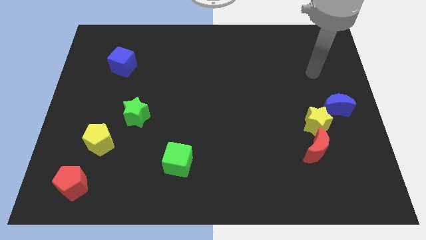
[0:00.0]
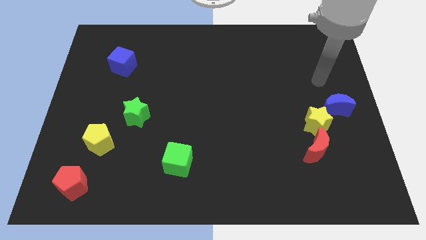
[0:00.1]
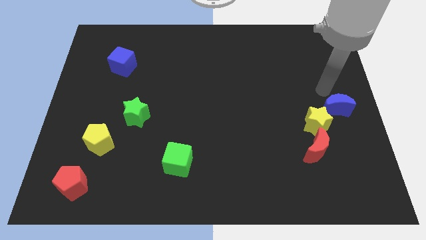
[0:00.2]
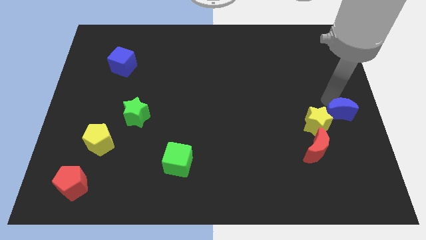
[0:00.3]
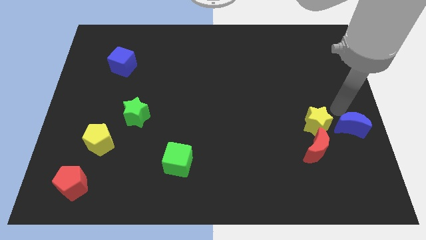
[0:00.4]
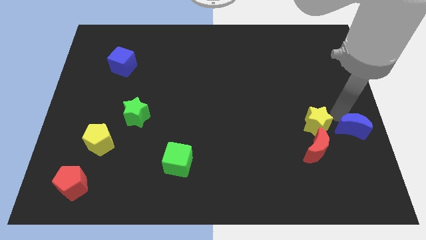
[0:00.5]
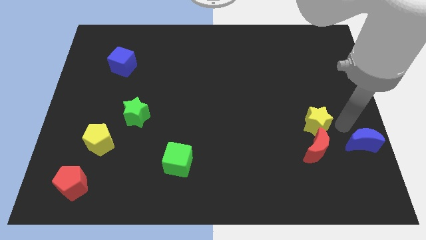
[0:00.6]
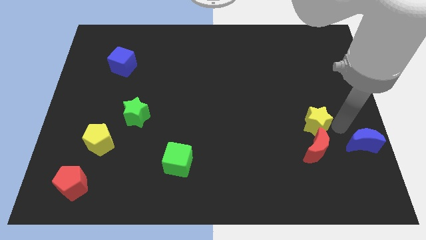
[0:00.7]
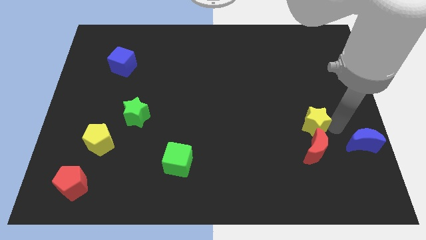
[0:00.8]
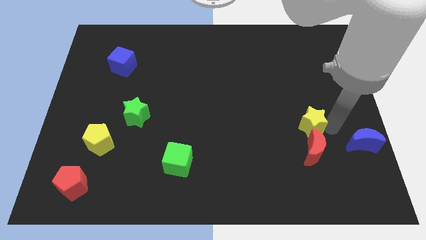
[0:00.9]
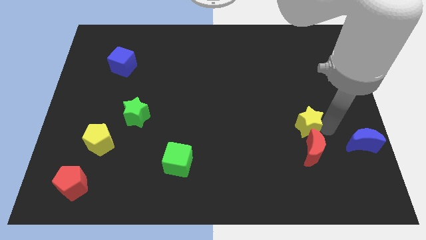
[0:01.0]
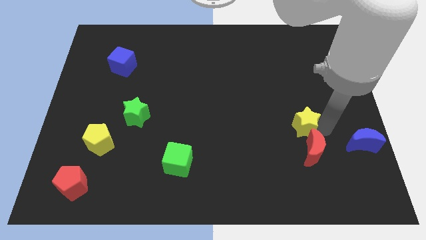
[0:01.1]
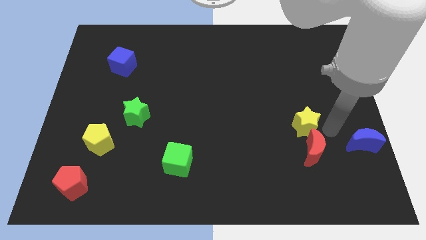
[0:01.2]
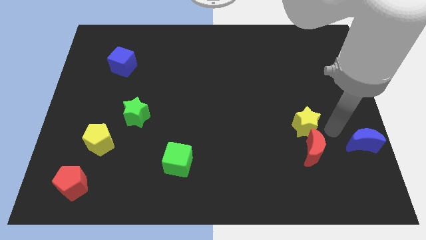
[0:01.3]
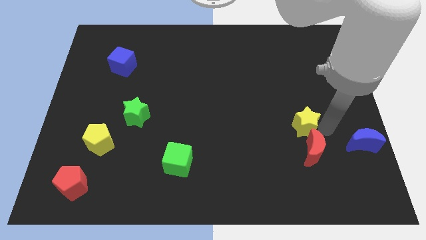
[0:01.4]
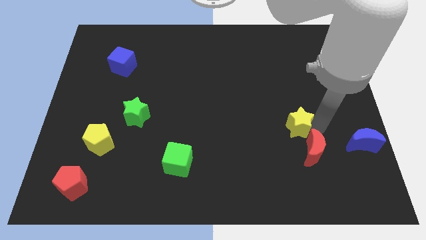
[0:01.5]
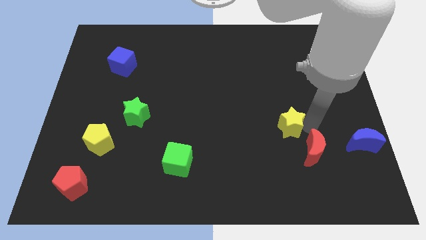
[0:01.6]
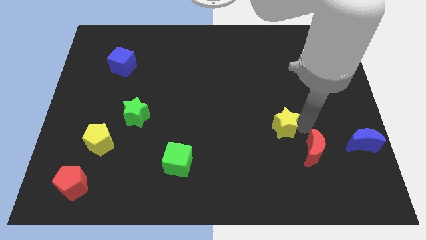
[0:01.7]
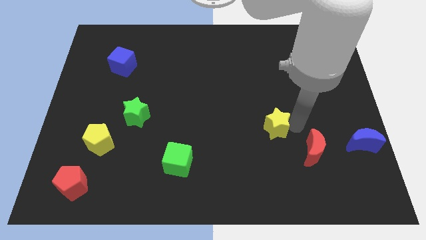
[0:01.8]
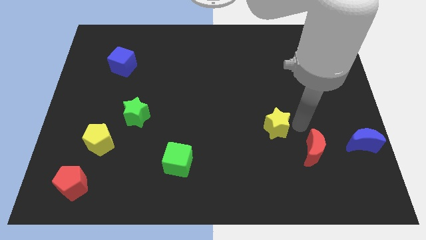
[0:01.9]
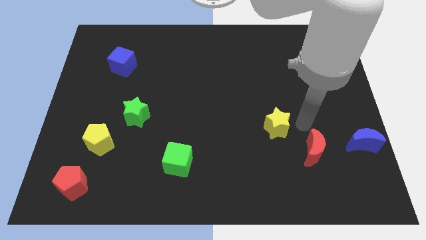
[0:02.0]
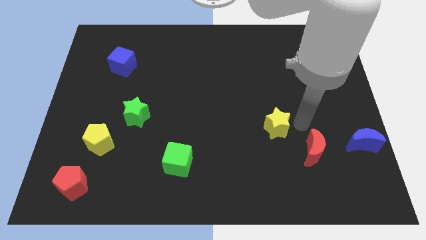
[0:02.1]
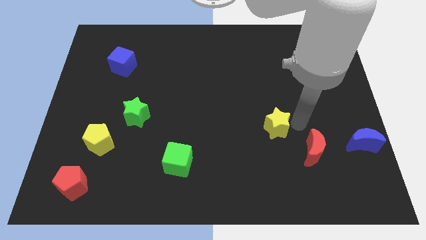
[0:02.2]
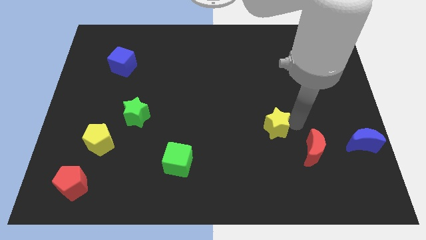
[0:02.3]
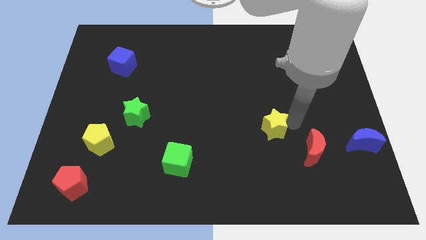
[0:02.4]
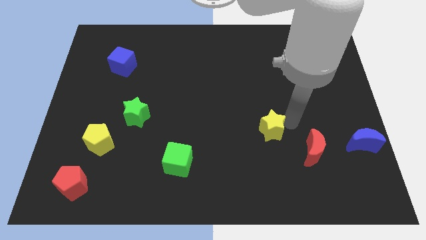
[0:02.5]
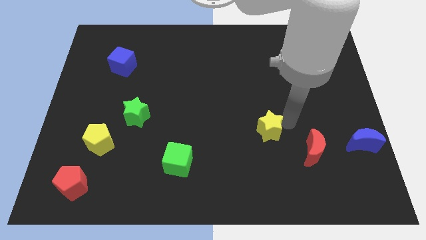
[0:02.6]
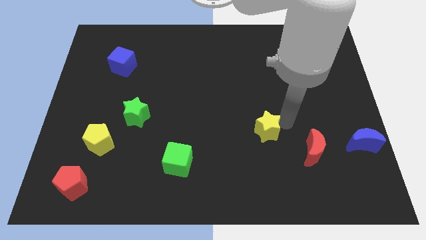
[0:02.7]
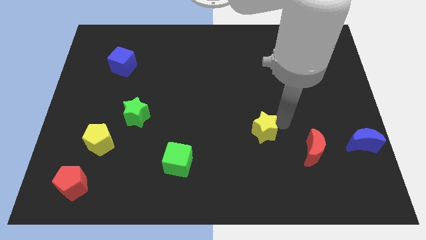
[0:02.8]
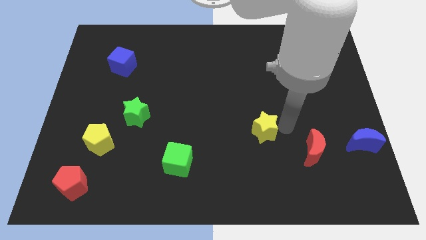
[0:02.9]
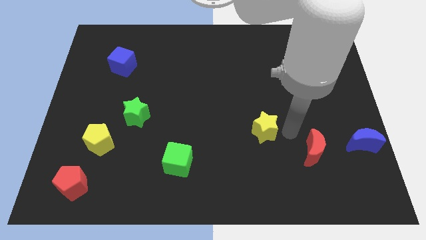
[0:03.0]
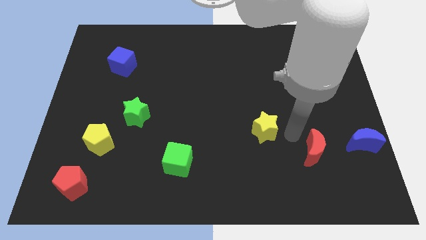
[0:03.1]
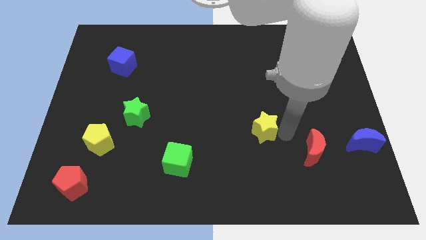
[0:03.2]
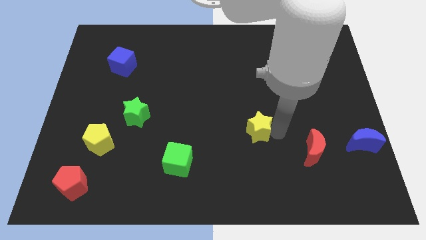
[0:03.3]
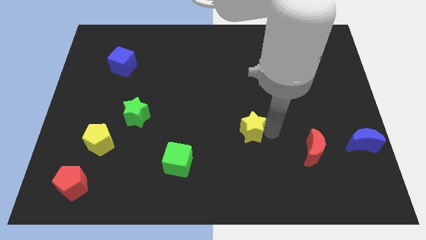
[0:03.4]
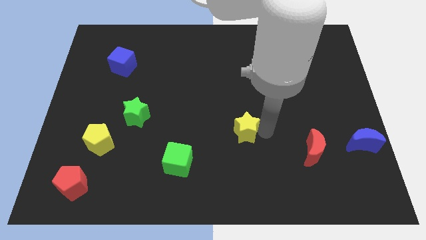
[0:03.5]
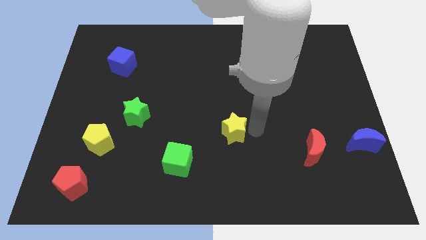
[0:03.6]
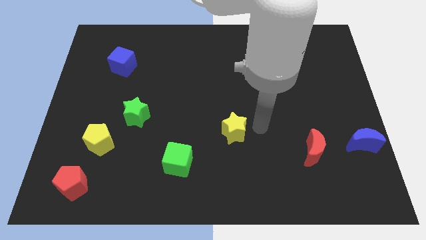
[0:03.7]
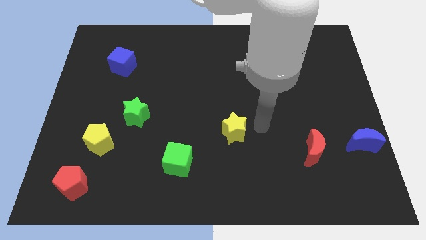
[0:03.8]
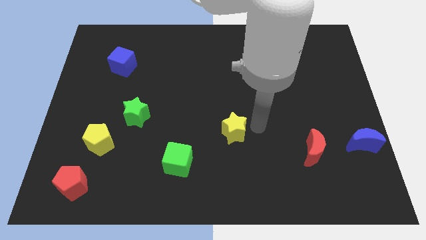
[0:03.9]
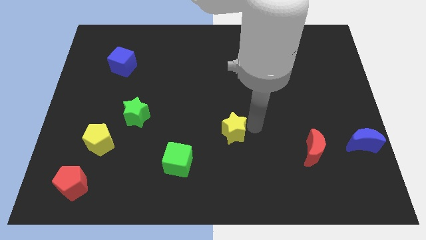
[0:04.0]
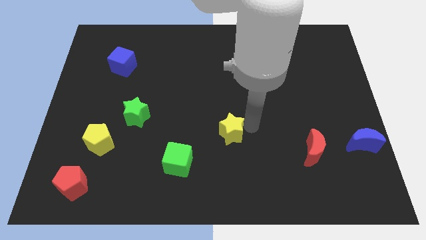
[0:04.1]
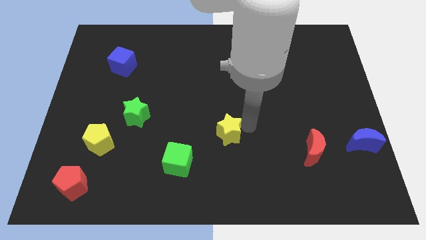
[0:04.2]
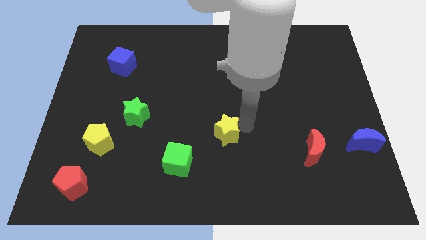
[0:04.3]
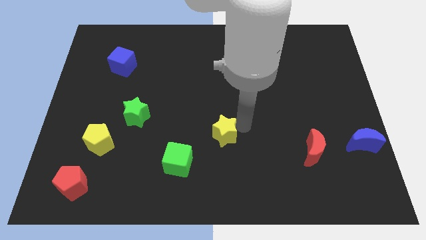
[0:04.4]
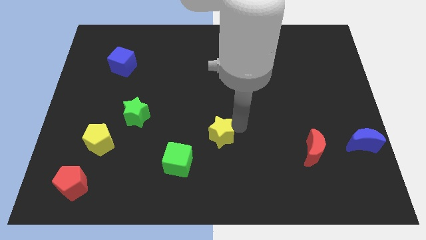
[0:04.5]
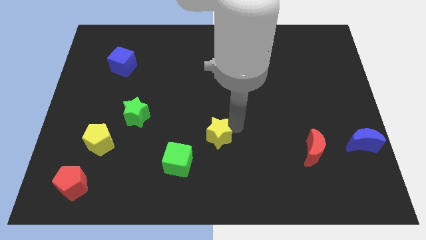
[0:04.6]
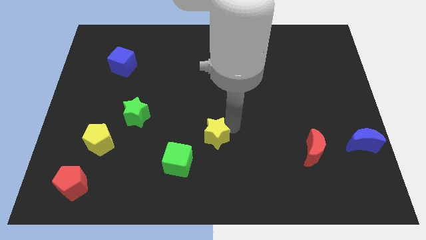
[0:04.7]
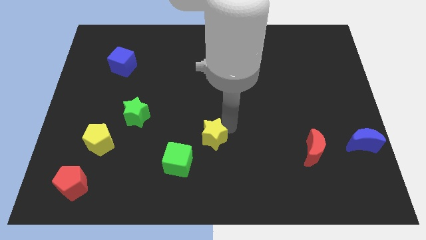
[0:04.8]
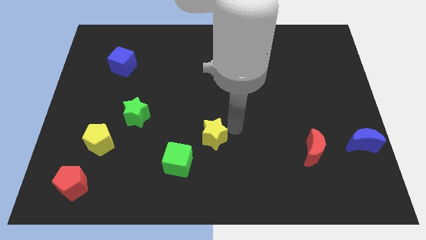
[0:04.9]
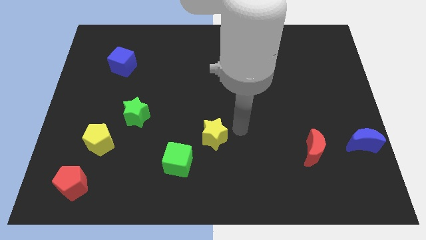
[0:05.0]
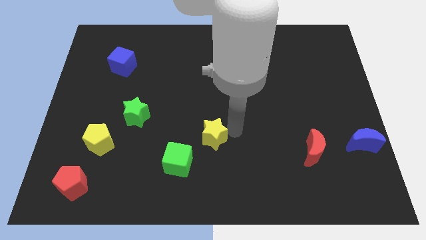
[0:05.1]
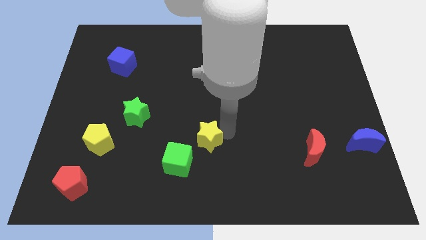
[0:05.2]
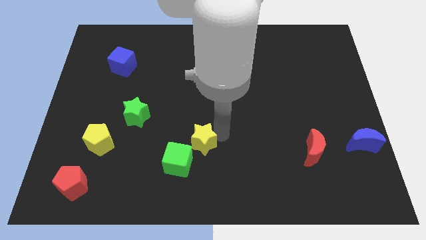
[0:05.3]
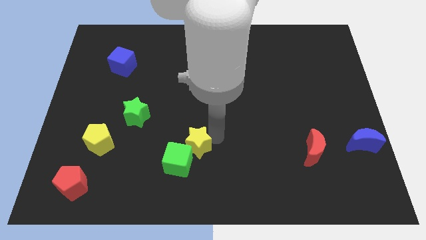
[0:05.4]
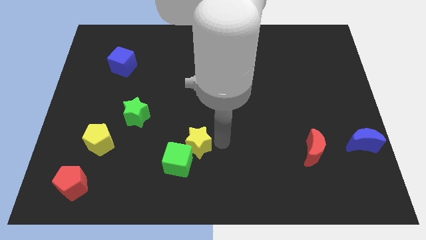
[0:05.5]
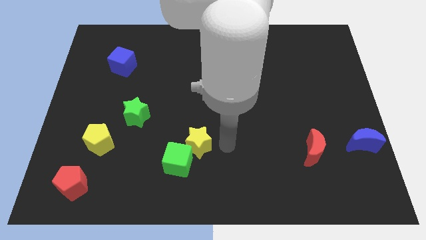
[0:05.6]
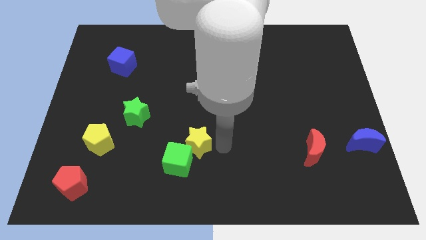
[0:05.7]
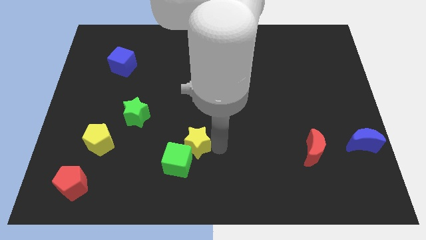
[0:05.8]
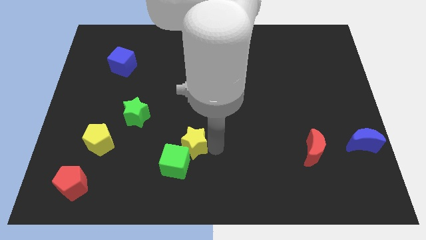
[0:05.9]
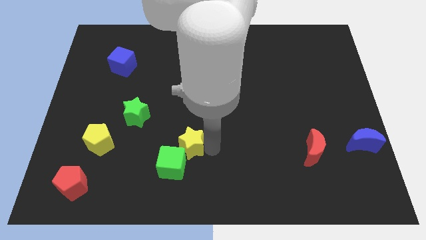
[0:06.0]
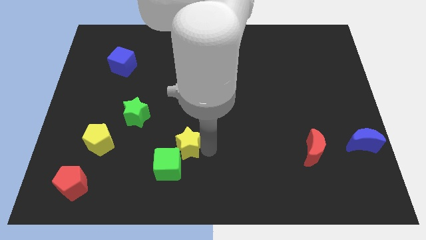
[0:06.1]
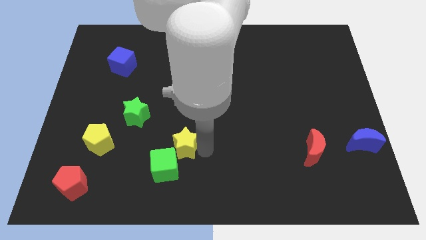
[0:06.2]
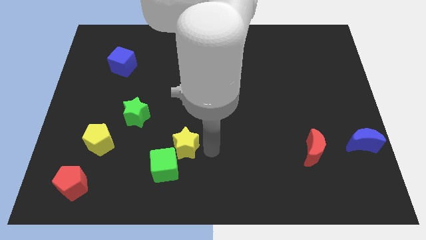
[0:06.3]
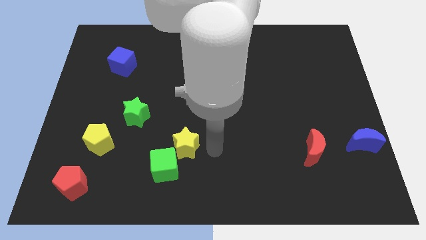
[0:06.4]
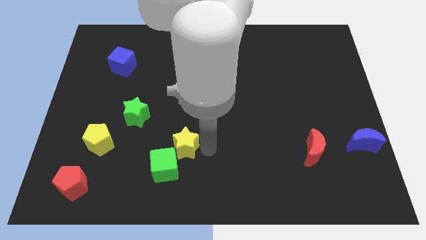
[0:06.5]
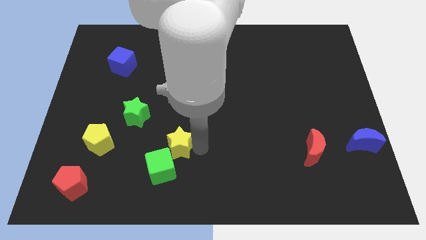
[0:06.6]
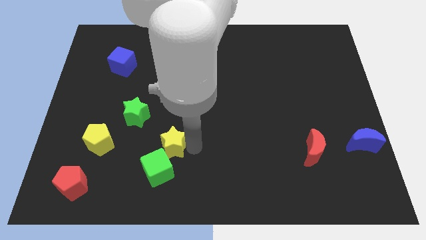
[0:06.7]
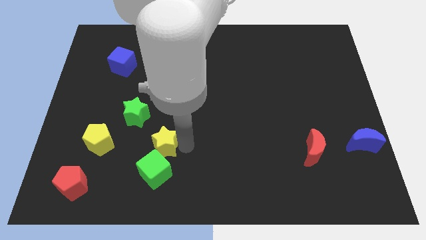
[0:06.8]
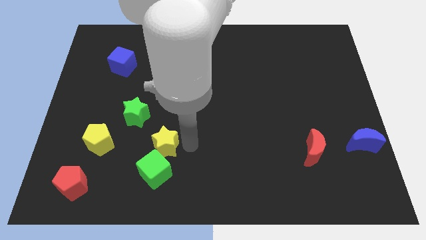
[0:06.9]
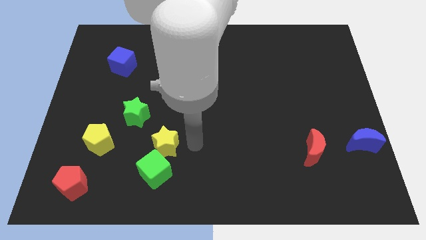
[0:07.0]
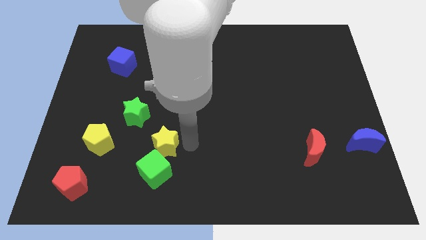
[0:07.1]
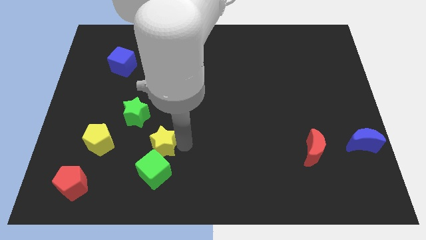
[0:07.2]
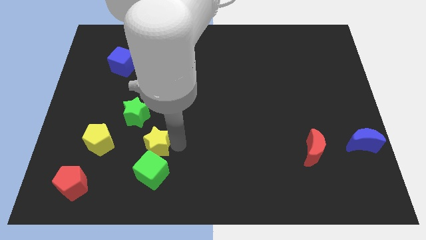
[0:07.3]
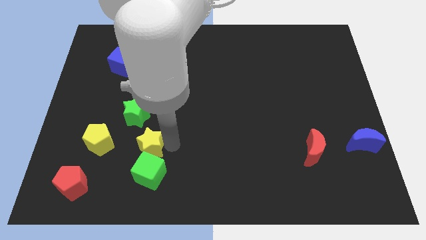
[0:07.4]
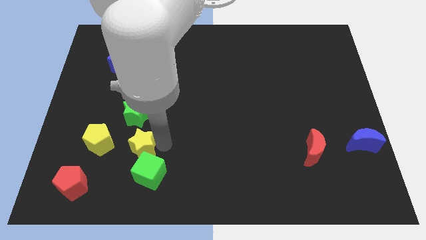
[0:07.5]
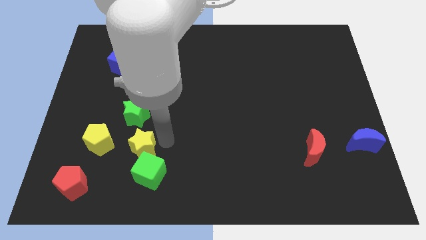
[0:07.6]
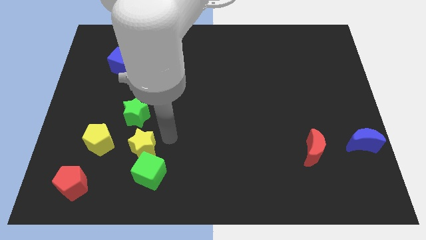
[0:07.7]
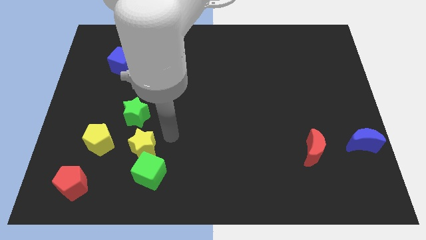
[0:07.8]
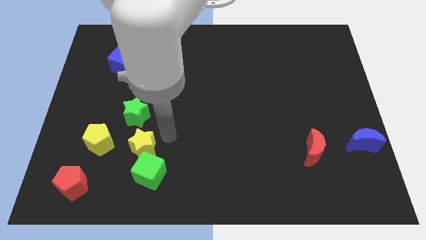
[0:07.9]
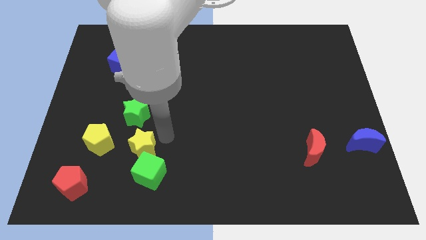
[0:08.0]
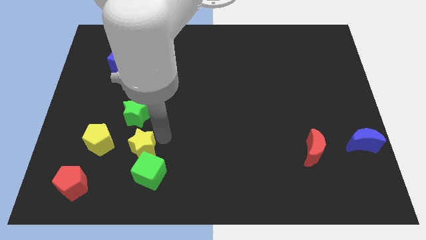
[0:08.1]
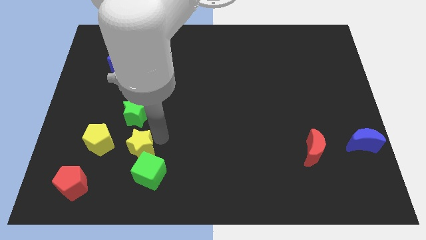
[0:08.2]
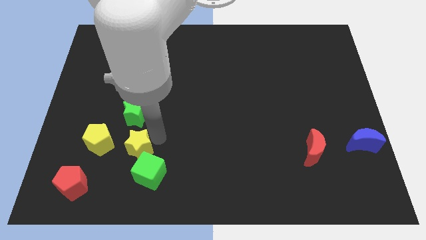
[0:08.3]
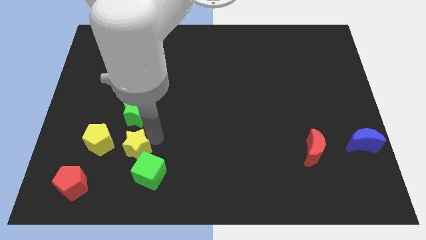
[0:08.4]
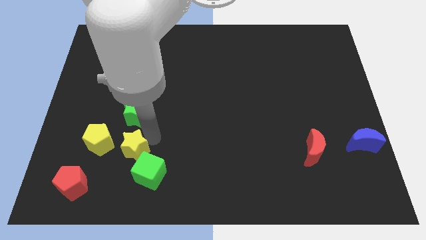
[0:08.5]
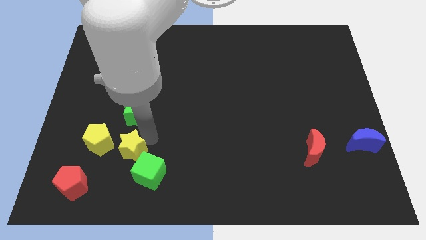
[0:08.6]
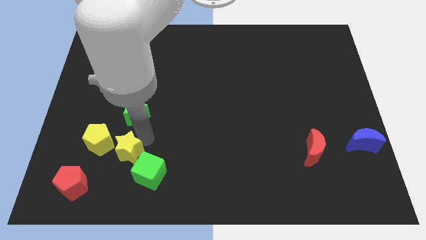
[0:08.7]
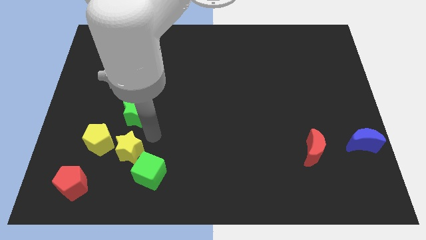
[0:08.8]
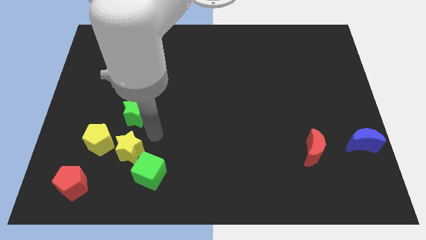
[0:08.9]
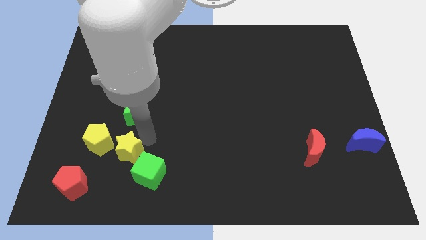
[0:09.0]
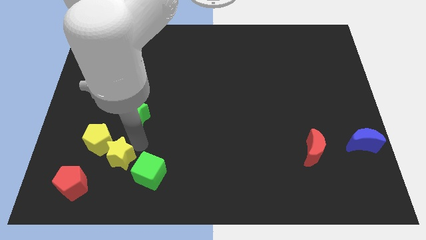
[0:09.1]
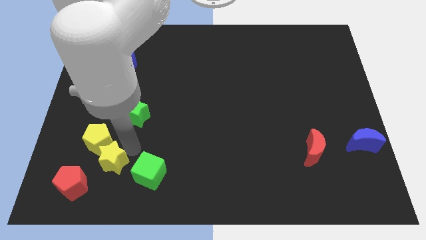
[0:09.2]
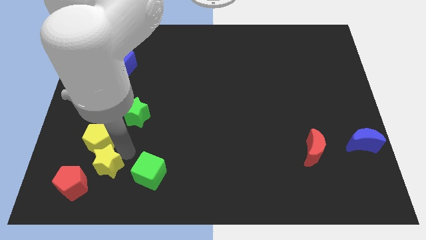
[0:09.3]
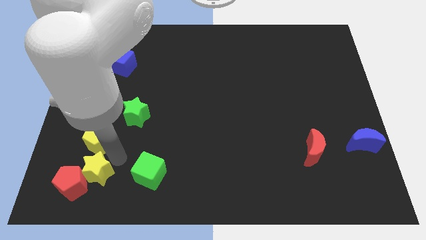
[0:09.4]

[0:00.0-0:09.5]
push the yellow star next to the red pentagon
